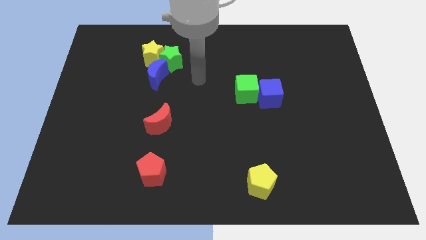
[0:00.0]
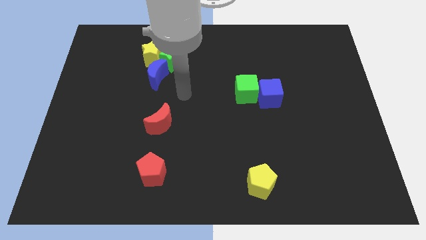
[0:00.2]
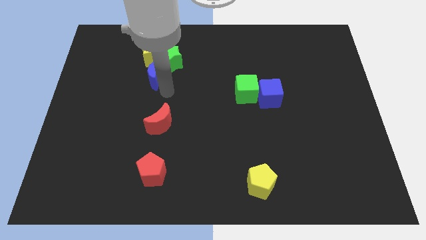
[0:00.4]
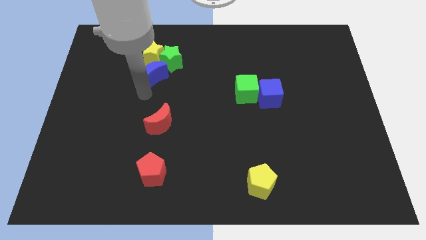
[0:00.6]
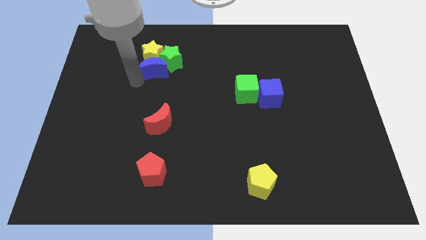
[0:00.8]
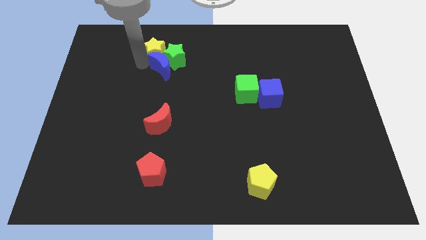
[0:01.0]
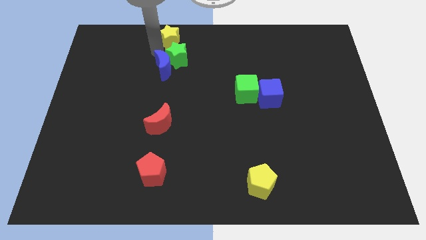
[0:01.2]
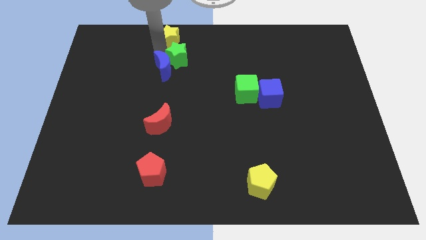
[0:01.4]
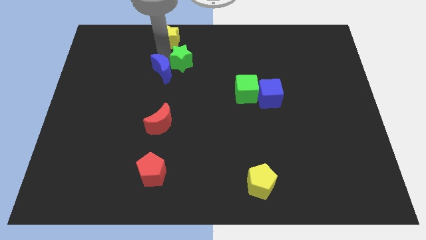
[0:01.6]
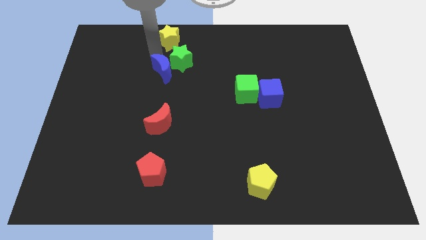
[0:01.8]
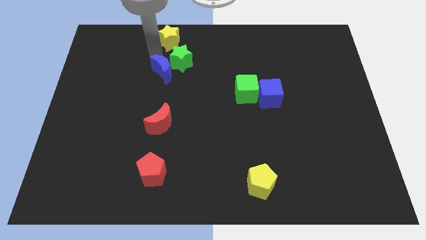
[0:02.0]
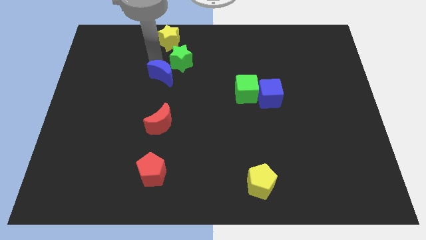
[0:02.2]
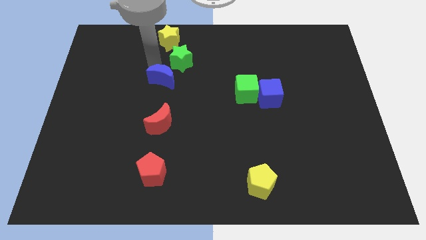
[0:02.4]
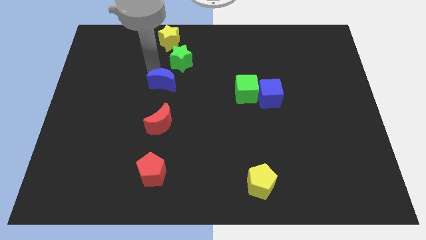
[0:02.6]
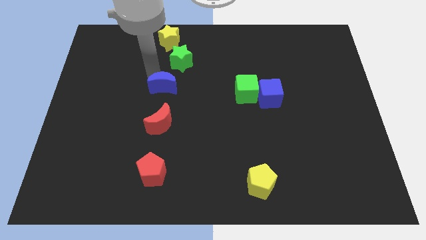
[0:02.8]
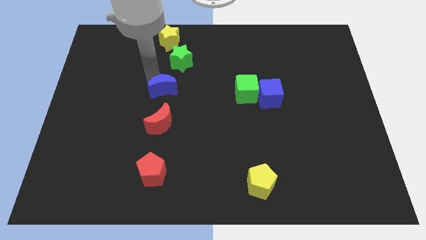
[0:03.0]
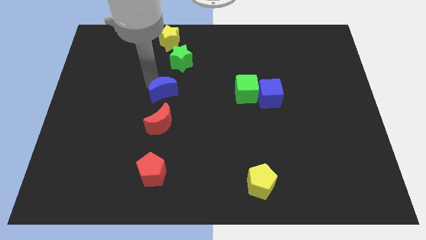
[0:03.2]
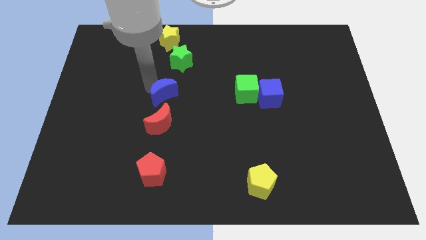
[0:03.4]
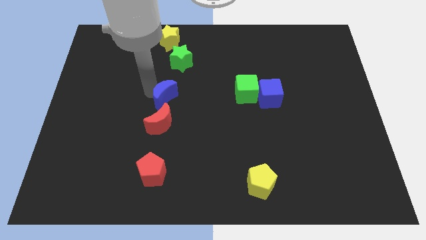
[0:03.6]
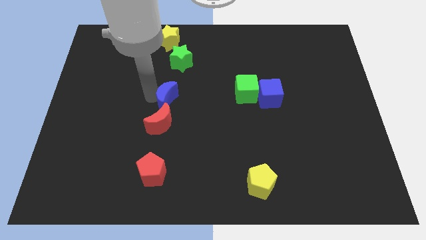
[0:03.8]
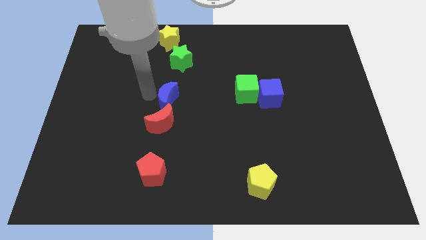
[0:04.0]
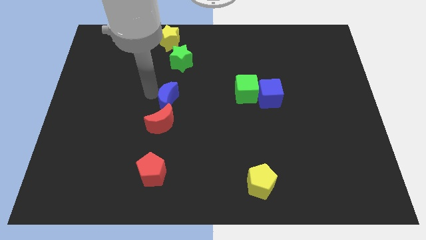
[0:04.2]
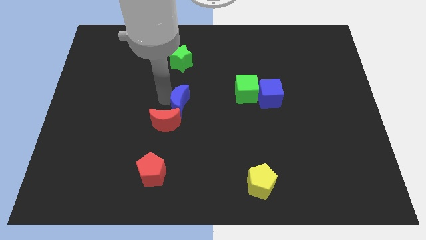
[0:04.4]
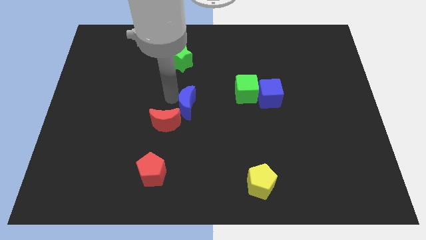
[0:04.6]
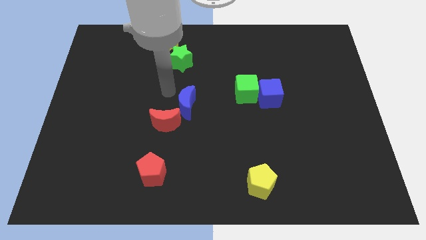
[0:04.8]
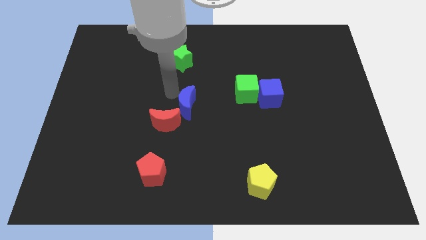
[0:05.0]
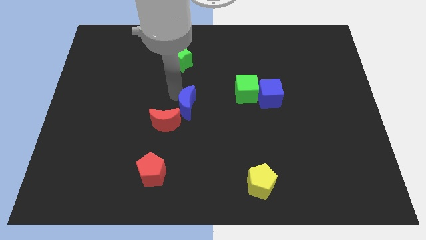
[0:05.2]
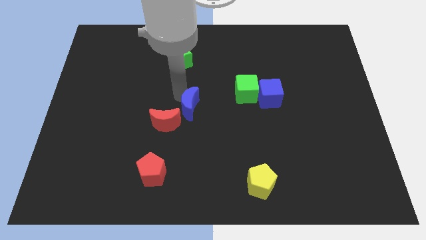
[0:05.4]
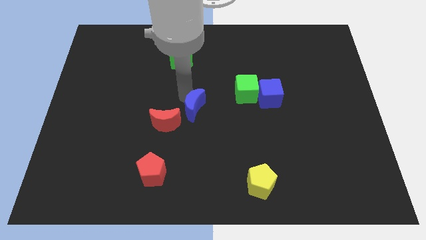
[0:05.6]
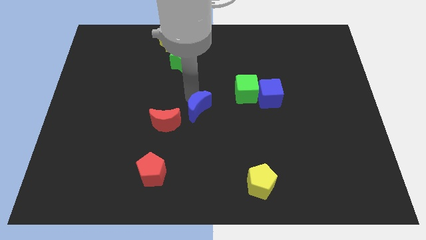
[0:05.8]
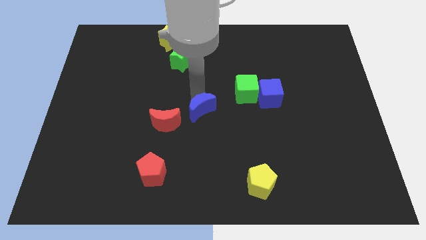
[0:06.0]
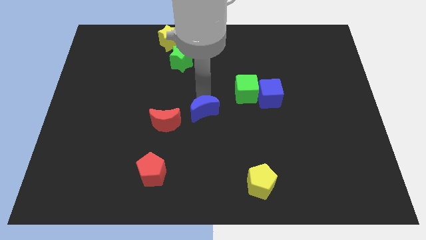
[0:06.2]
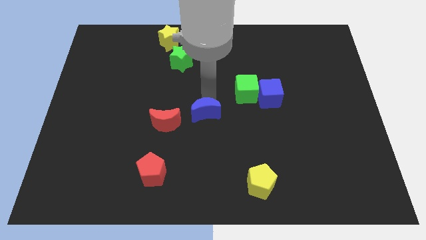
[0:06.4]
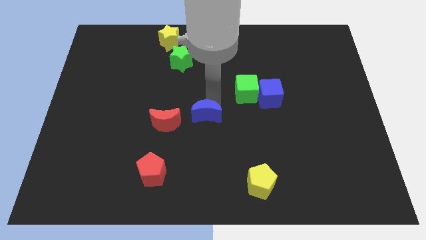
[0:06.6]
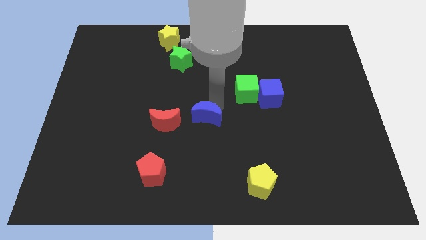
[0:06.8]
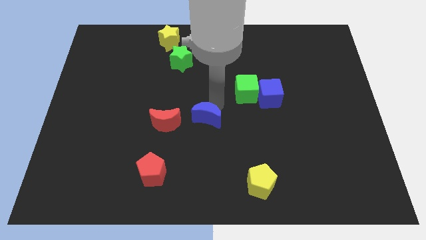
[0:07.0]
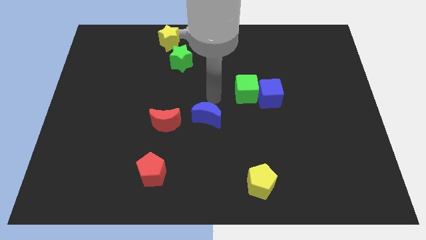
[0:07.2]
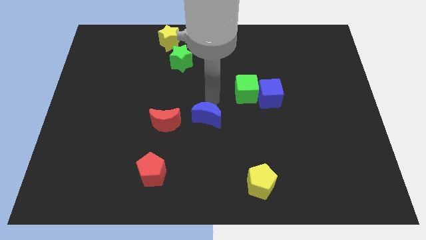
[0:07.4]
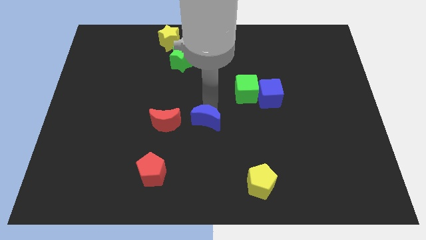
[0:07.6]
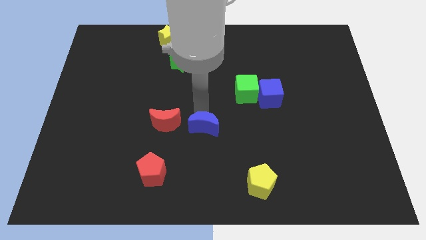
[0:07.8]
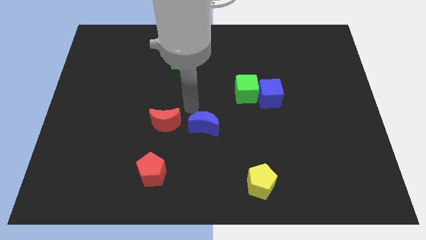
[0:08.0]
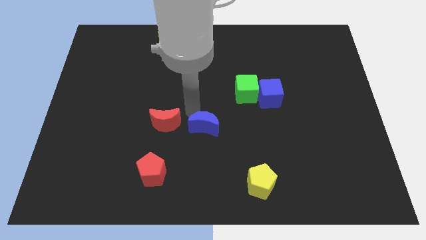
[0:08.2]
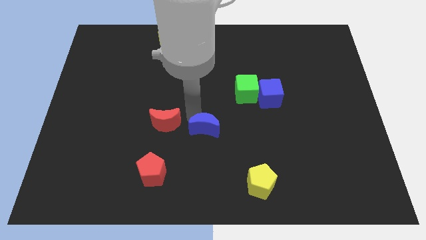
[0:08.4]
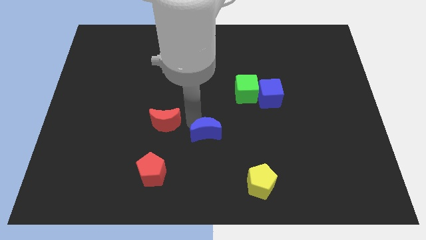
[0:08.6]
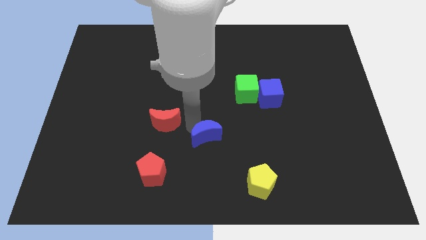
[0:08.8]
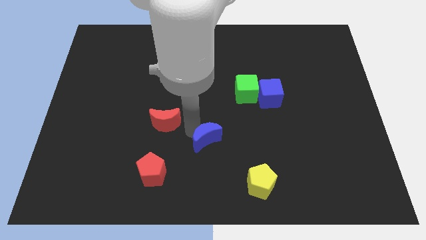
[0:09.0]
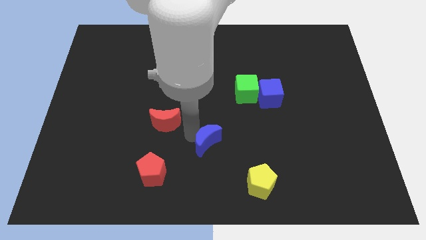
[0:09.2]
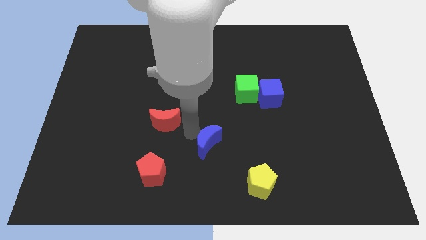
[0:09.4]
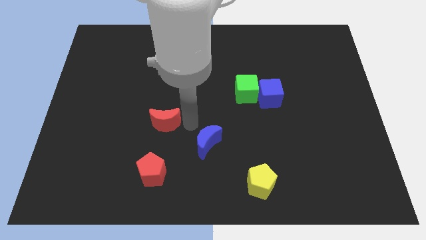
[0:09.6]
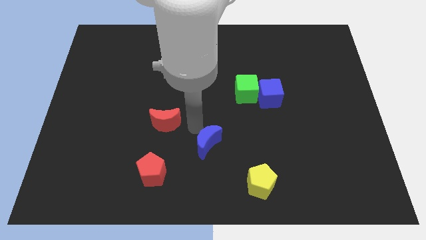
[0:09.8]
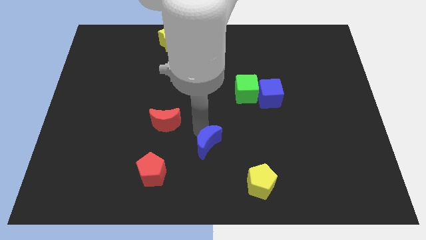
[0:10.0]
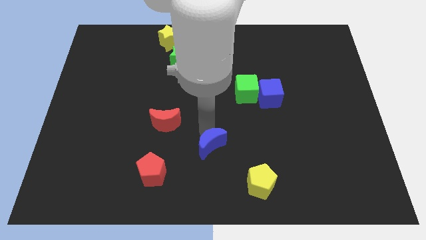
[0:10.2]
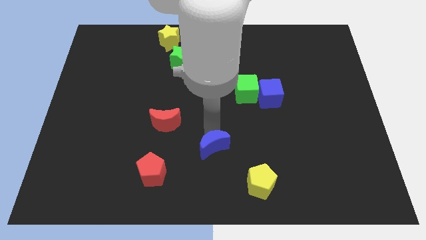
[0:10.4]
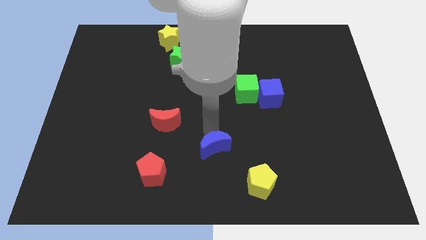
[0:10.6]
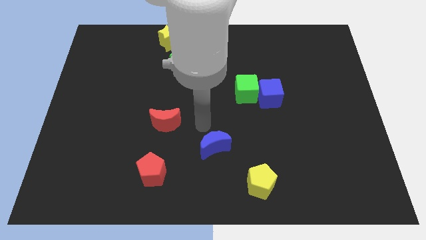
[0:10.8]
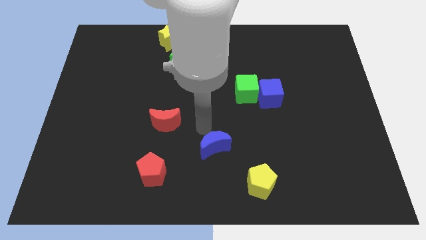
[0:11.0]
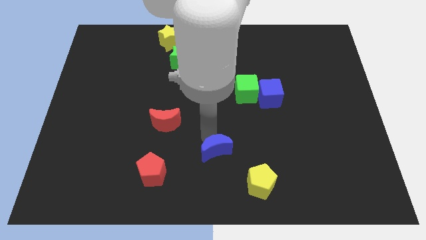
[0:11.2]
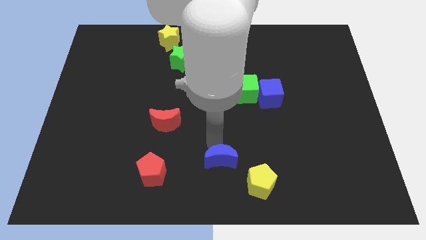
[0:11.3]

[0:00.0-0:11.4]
push the blue moon to the bottom

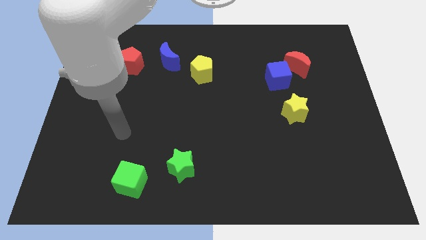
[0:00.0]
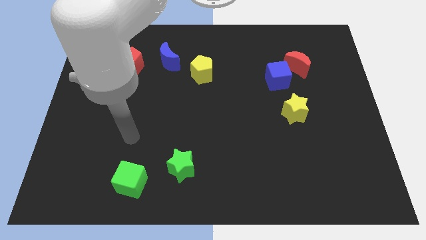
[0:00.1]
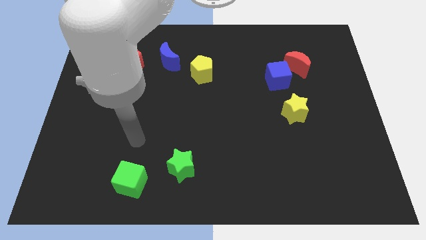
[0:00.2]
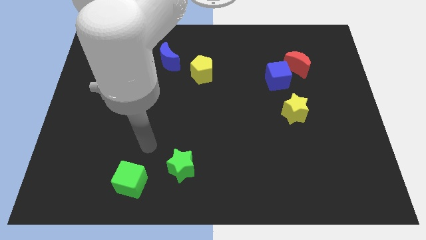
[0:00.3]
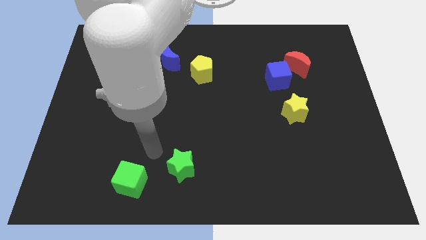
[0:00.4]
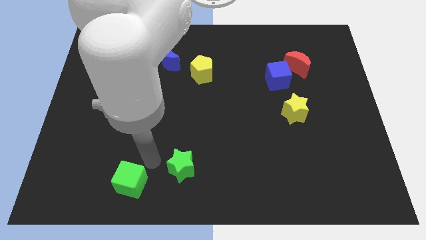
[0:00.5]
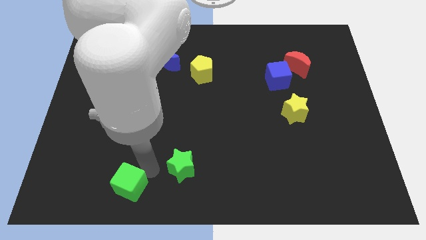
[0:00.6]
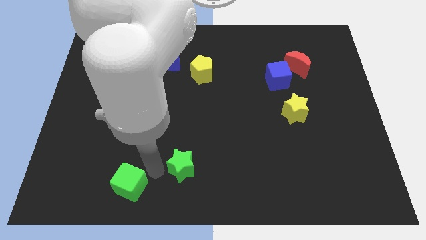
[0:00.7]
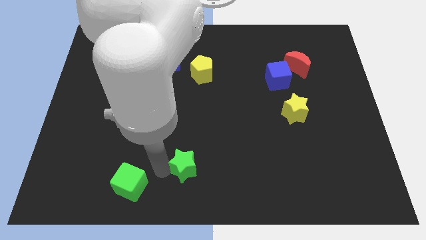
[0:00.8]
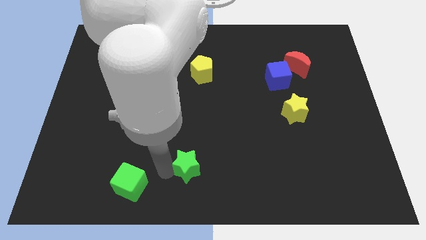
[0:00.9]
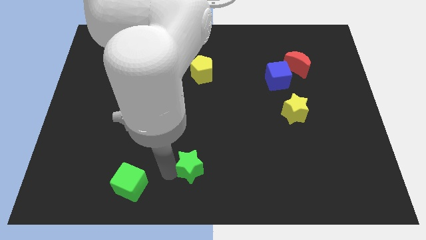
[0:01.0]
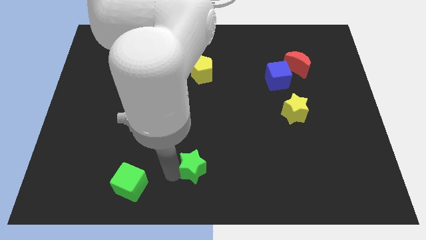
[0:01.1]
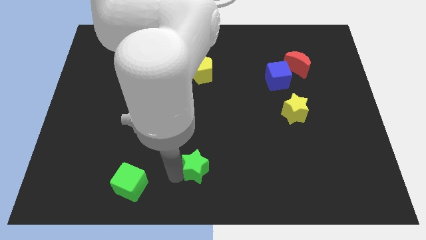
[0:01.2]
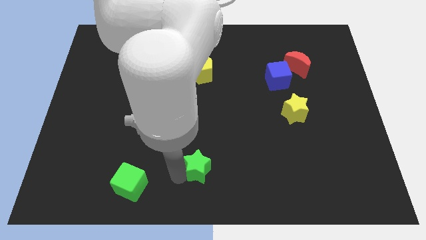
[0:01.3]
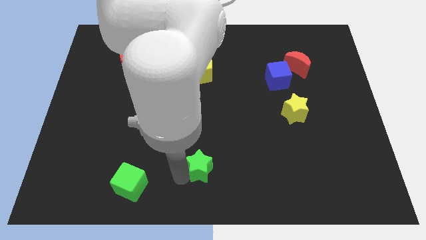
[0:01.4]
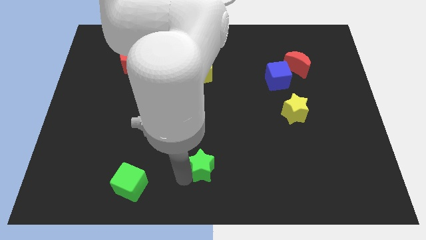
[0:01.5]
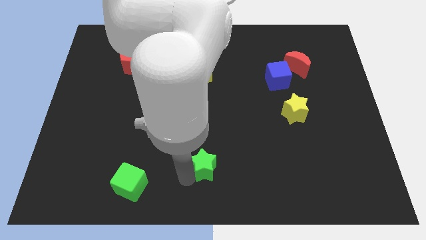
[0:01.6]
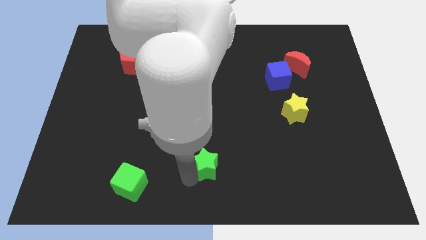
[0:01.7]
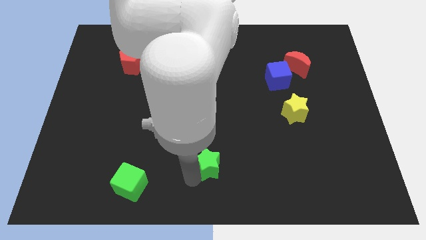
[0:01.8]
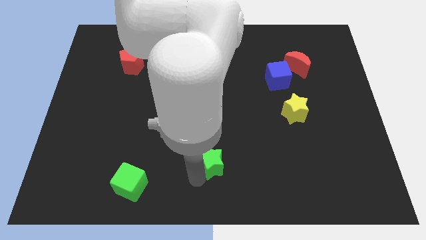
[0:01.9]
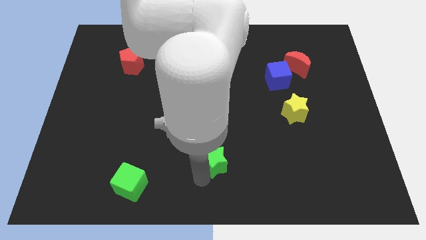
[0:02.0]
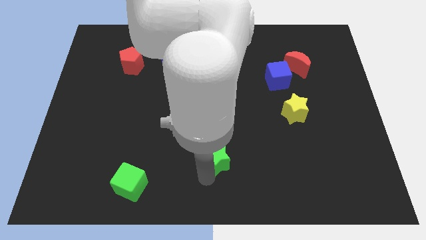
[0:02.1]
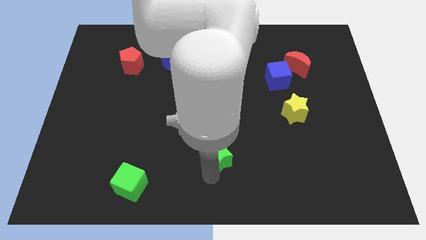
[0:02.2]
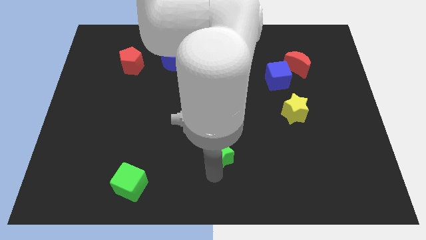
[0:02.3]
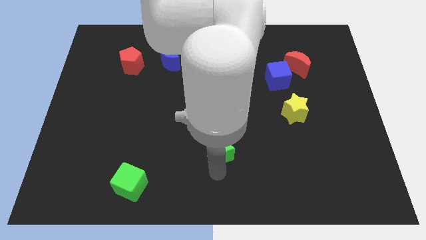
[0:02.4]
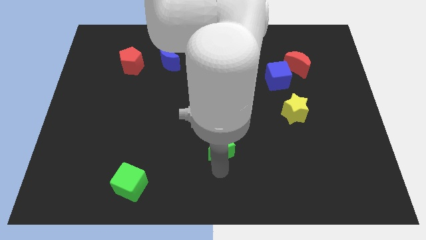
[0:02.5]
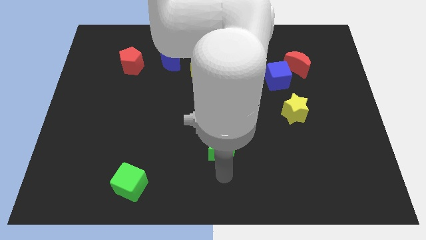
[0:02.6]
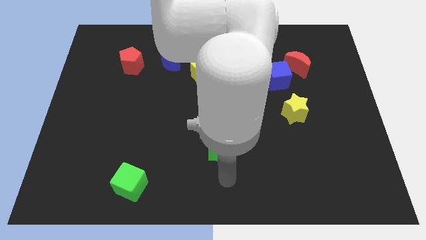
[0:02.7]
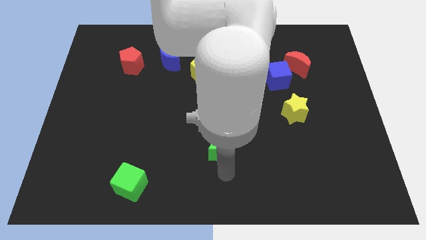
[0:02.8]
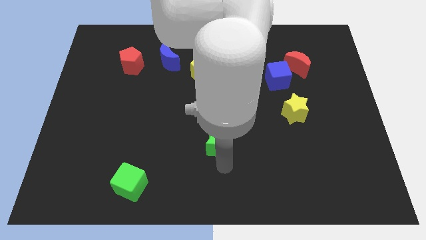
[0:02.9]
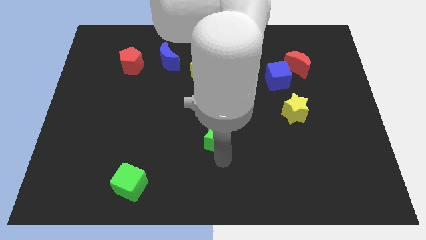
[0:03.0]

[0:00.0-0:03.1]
move the green star to the center of the board
